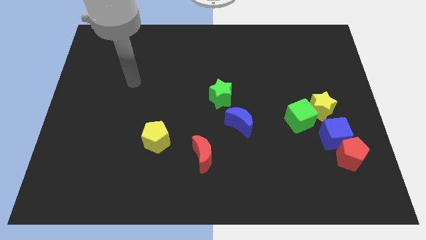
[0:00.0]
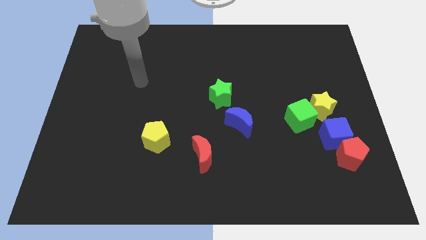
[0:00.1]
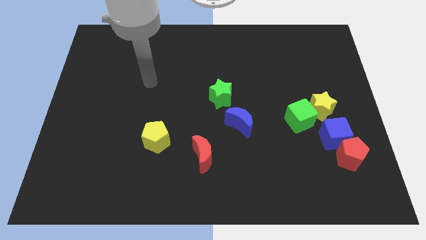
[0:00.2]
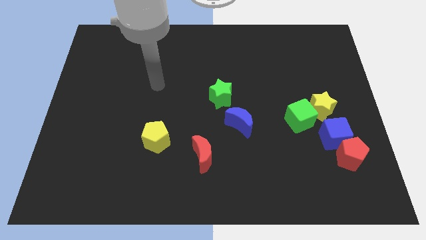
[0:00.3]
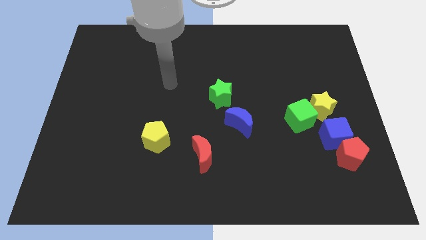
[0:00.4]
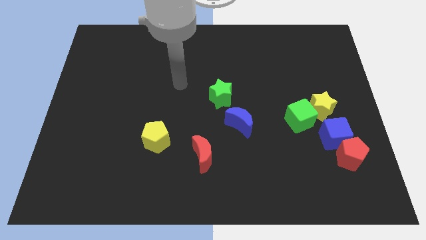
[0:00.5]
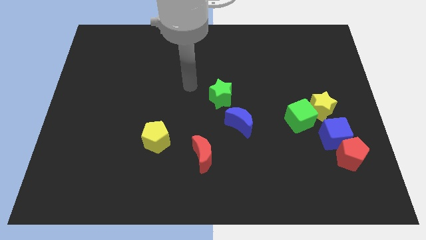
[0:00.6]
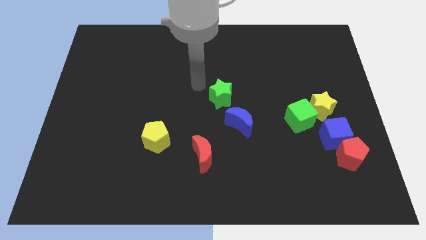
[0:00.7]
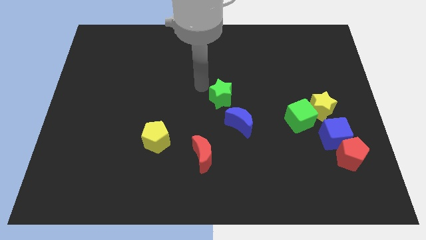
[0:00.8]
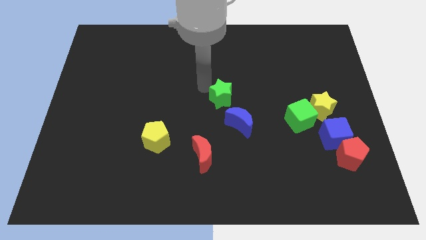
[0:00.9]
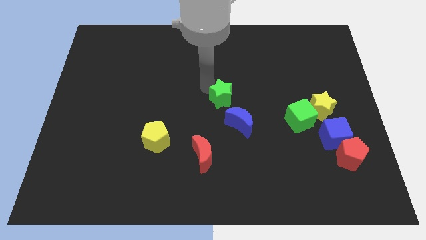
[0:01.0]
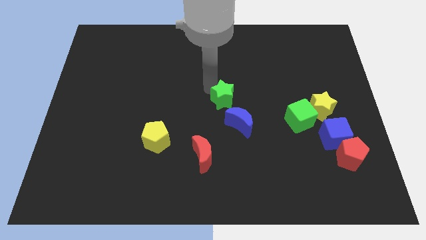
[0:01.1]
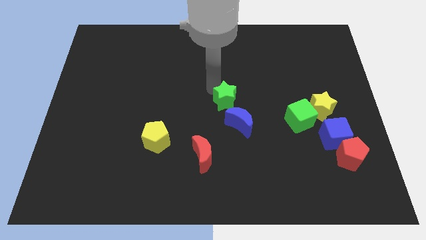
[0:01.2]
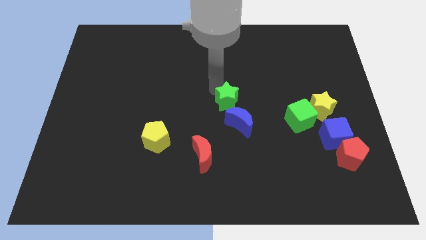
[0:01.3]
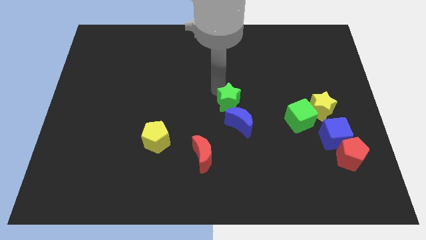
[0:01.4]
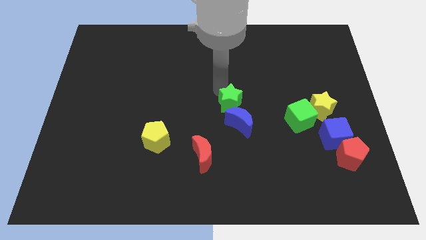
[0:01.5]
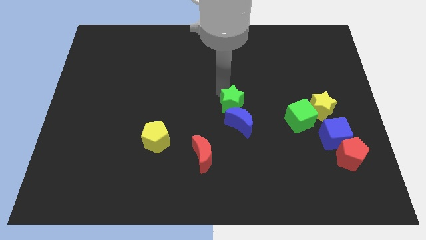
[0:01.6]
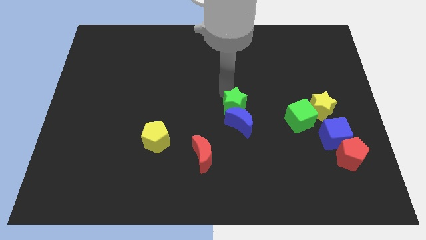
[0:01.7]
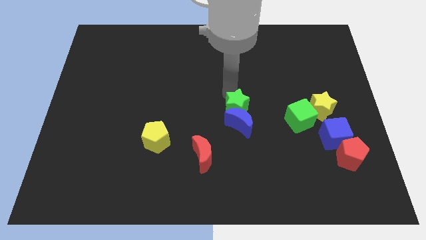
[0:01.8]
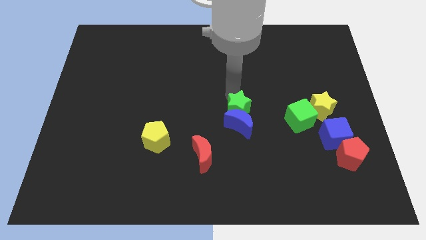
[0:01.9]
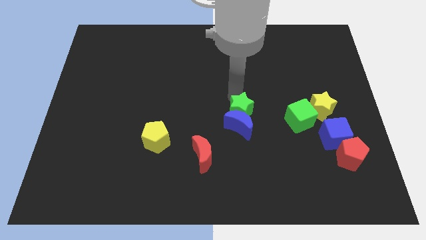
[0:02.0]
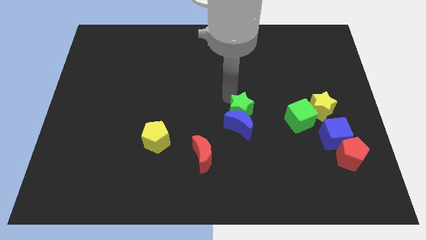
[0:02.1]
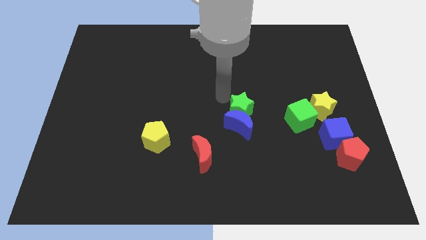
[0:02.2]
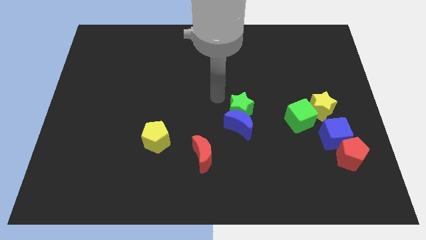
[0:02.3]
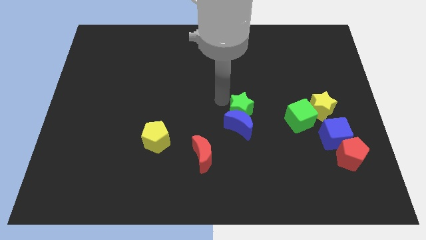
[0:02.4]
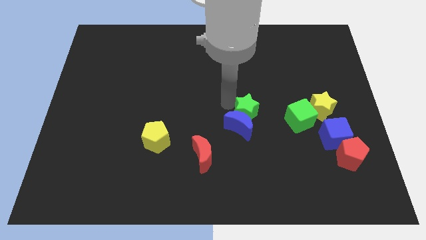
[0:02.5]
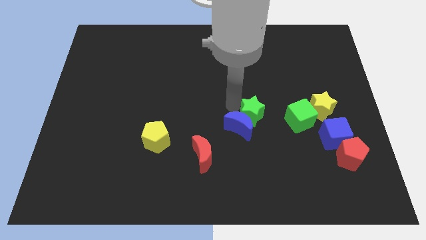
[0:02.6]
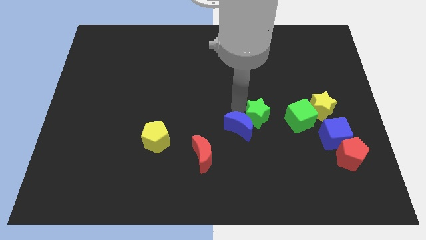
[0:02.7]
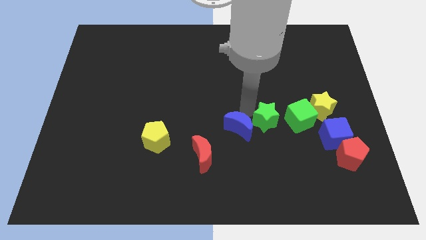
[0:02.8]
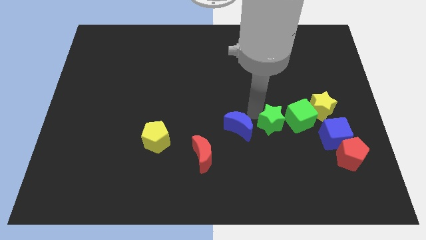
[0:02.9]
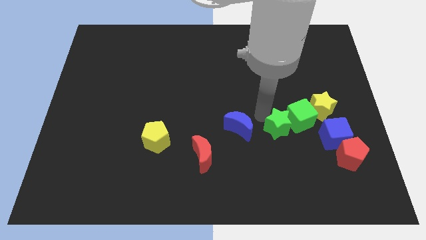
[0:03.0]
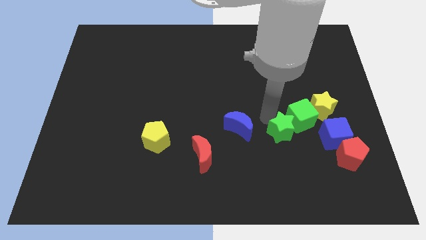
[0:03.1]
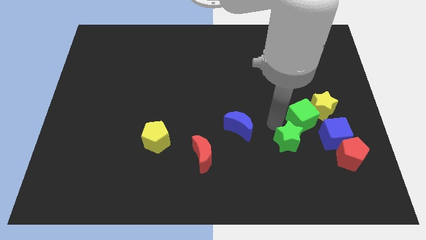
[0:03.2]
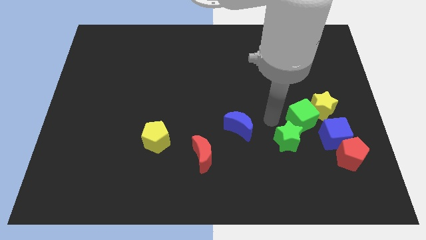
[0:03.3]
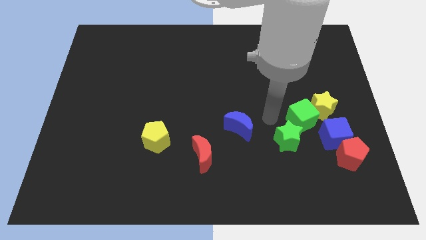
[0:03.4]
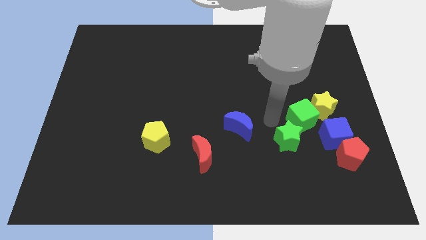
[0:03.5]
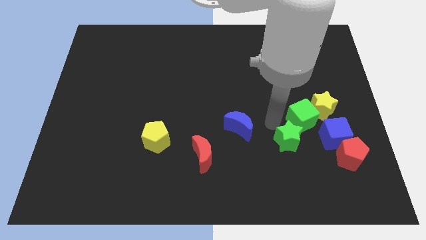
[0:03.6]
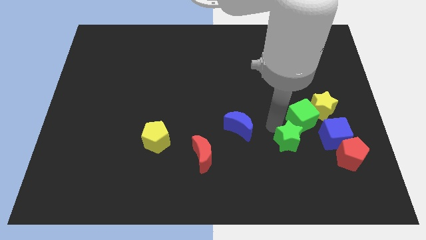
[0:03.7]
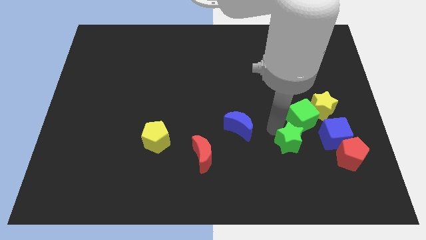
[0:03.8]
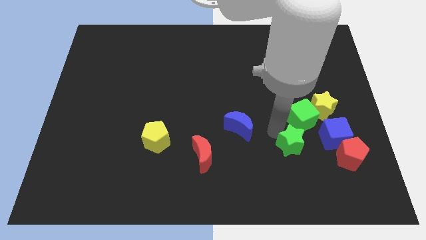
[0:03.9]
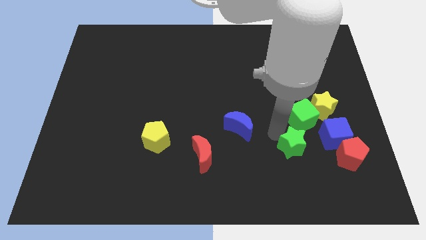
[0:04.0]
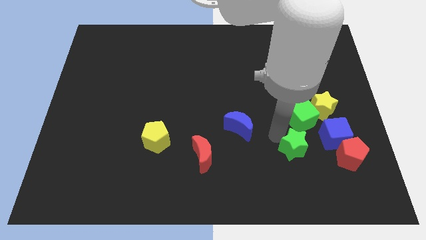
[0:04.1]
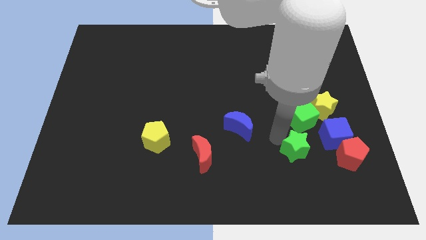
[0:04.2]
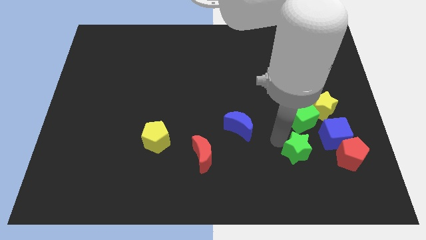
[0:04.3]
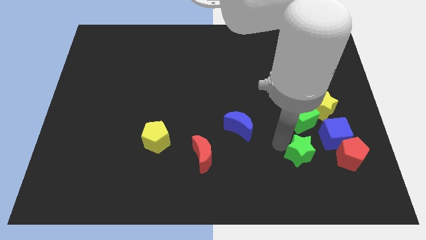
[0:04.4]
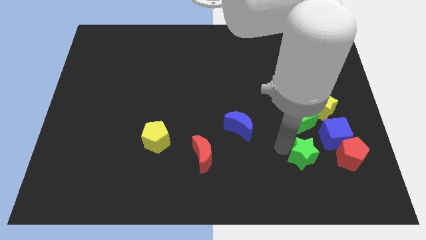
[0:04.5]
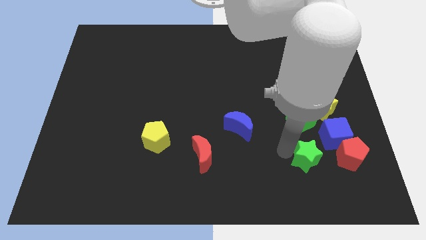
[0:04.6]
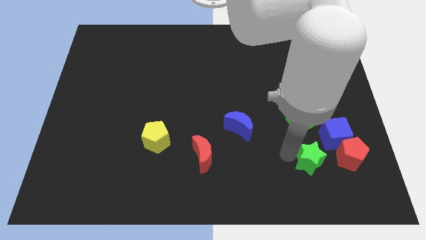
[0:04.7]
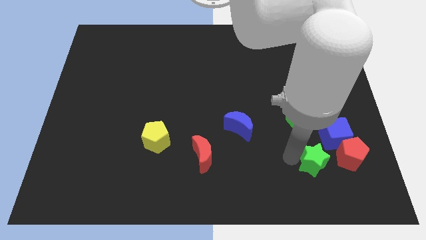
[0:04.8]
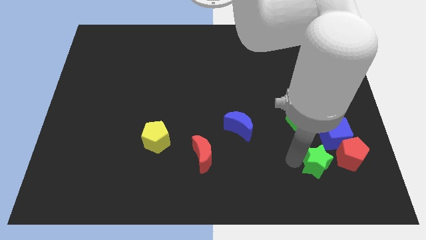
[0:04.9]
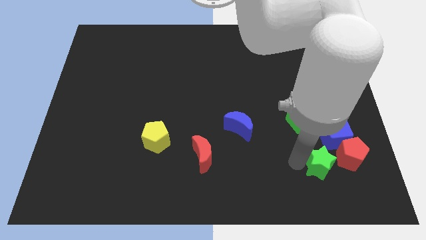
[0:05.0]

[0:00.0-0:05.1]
slide the green star below the blue cube

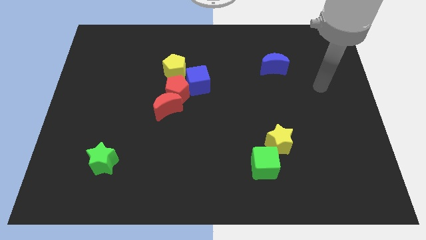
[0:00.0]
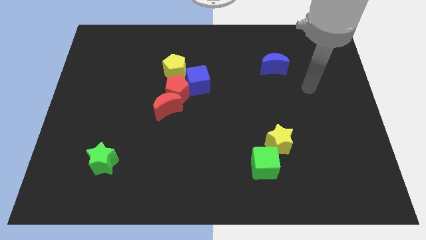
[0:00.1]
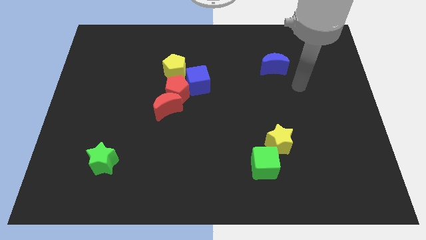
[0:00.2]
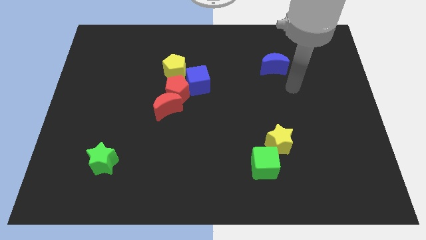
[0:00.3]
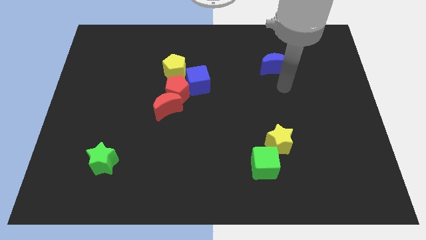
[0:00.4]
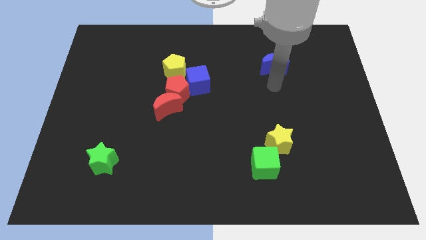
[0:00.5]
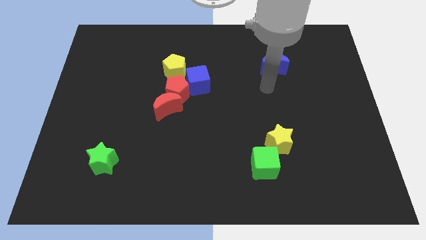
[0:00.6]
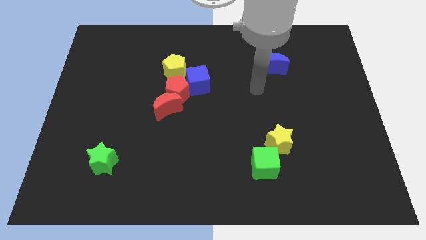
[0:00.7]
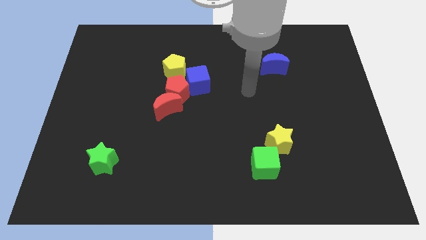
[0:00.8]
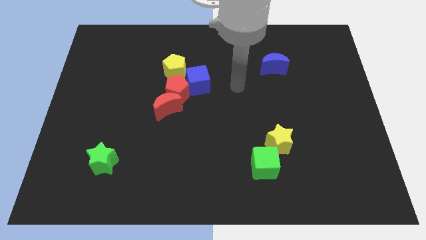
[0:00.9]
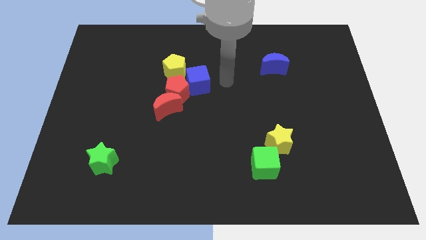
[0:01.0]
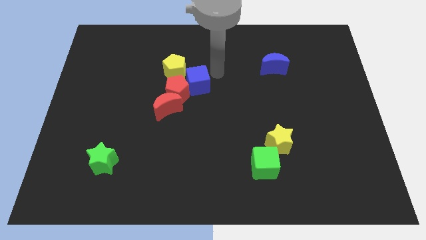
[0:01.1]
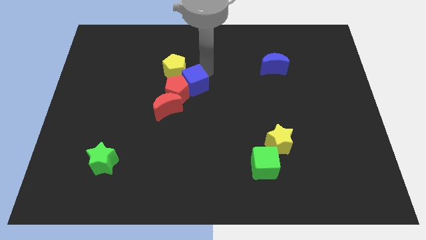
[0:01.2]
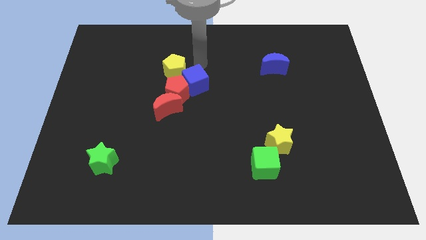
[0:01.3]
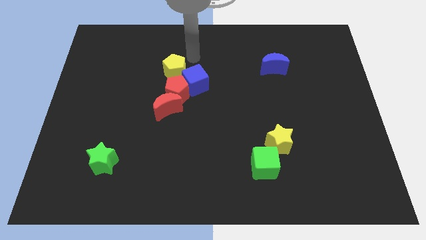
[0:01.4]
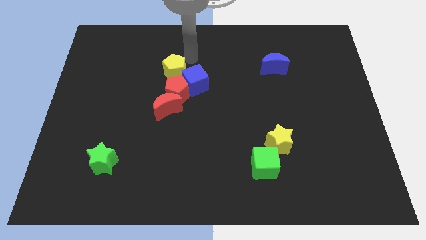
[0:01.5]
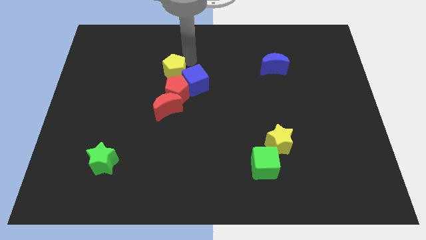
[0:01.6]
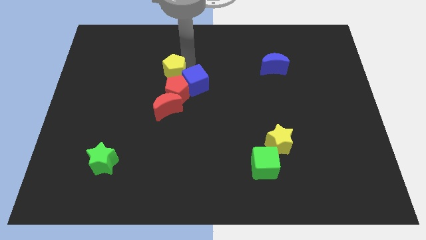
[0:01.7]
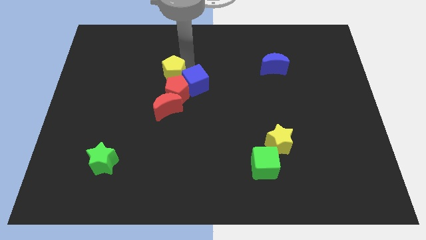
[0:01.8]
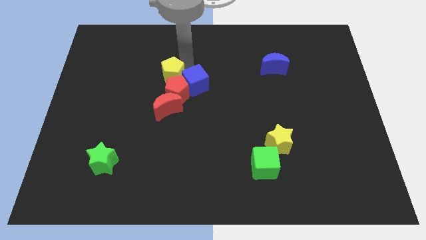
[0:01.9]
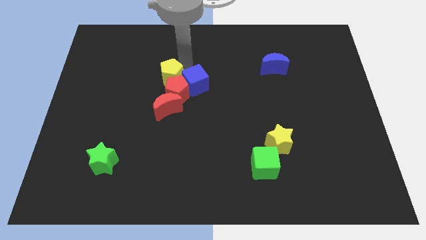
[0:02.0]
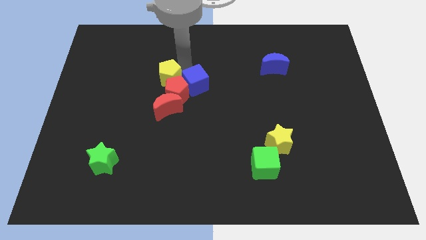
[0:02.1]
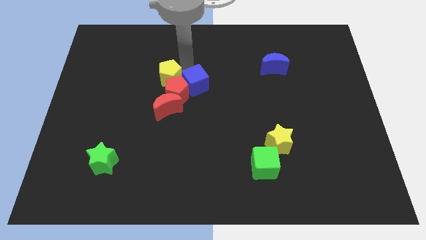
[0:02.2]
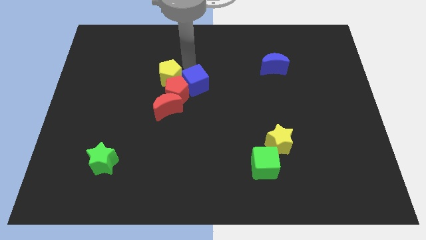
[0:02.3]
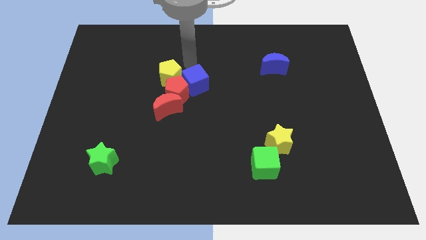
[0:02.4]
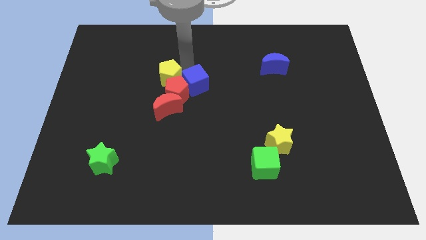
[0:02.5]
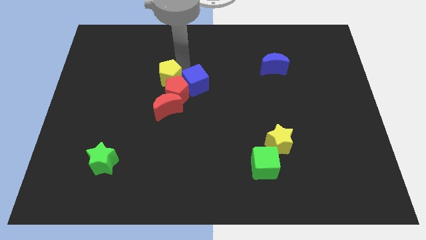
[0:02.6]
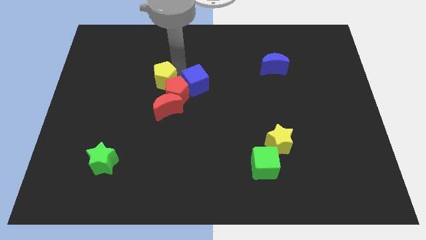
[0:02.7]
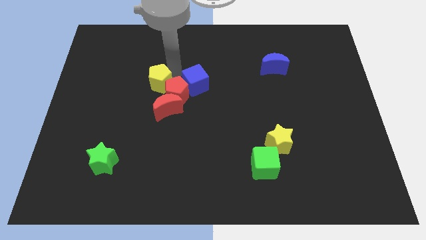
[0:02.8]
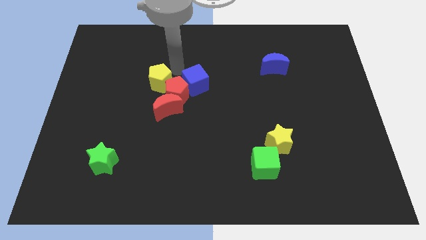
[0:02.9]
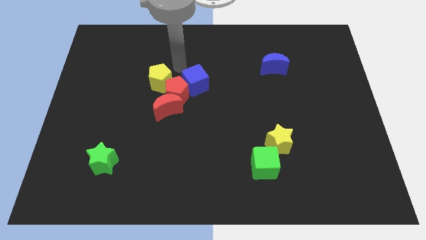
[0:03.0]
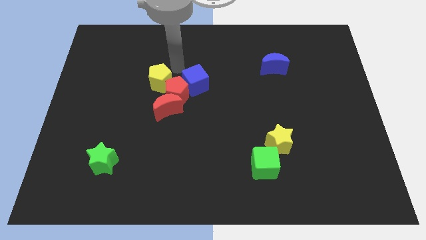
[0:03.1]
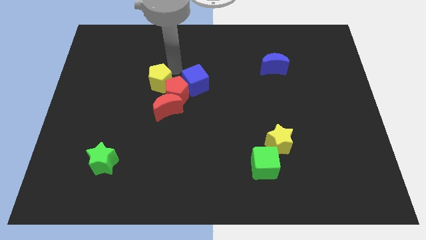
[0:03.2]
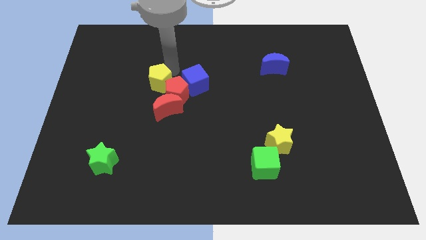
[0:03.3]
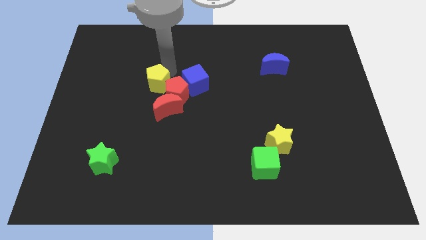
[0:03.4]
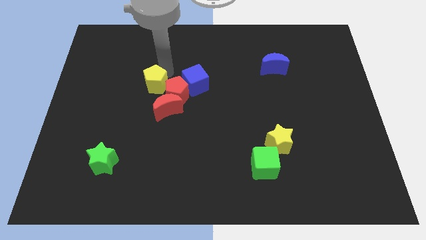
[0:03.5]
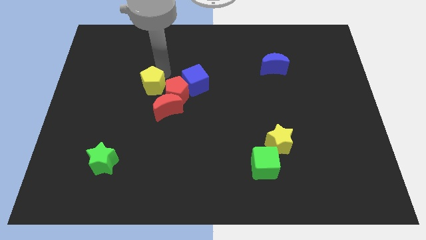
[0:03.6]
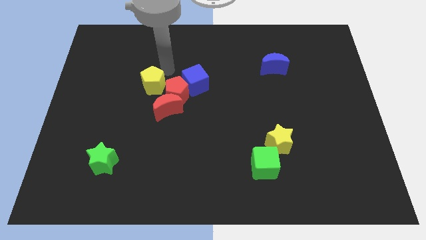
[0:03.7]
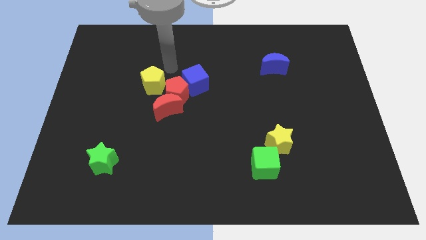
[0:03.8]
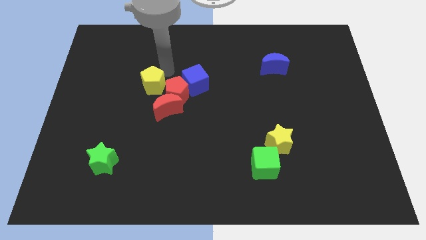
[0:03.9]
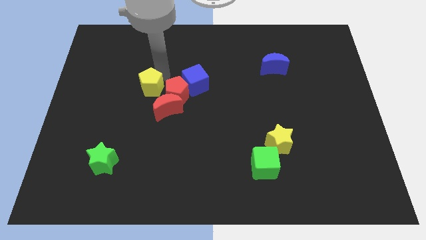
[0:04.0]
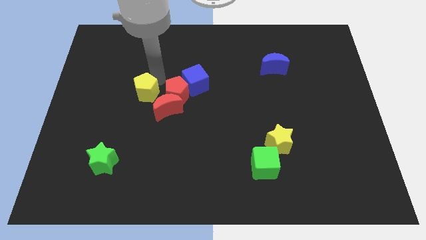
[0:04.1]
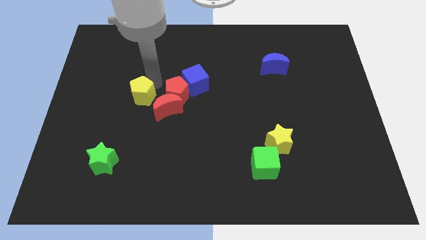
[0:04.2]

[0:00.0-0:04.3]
put the yellow pentagon just left of the red moon
